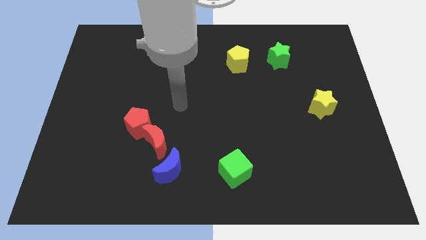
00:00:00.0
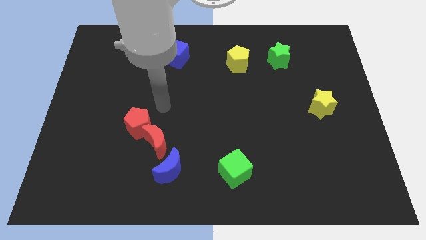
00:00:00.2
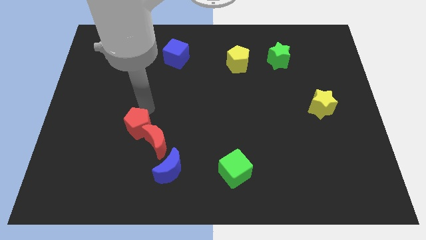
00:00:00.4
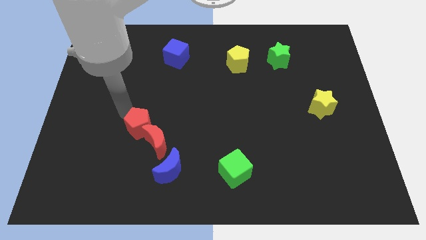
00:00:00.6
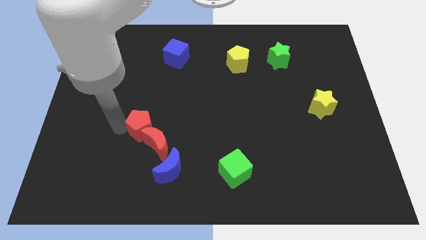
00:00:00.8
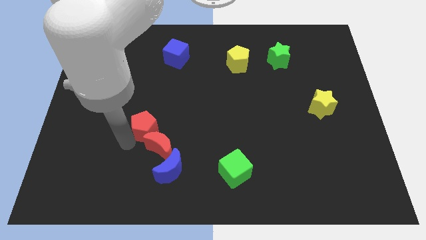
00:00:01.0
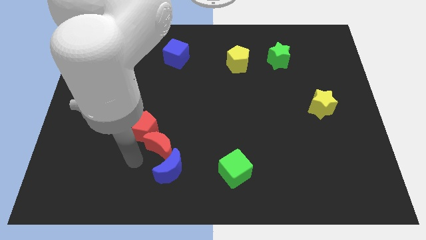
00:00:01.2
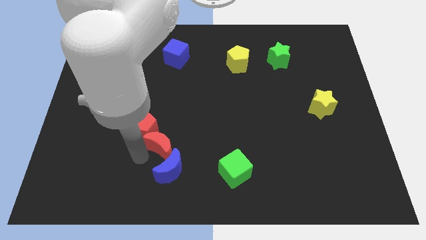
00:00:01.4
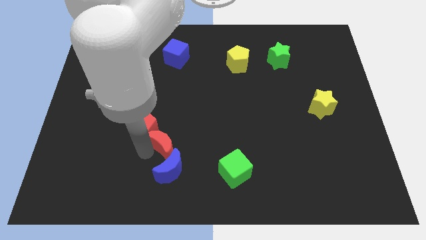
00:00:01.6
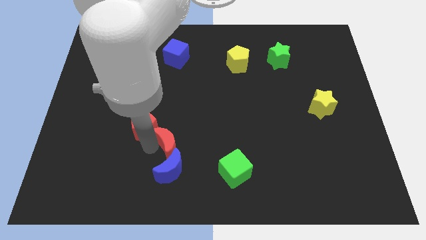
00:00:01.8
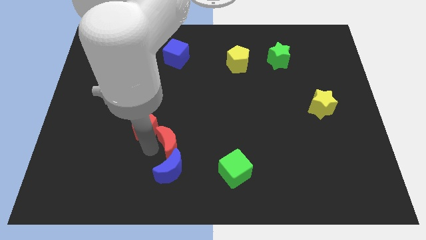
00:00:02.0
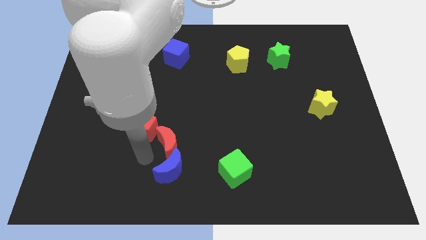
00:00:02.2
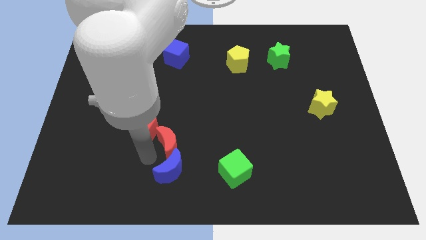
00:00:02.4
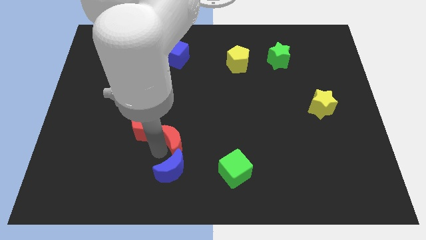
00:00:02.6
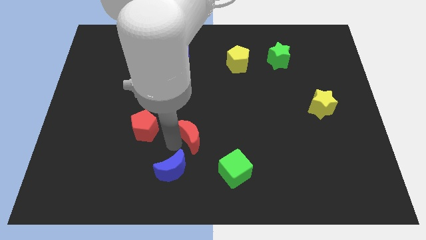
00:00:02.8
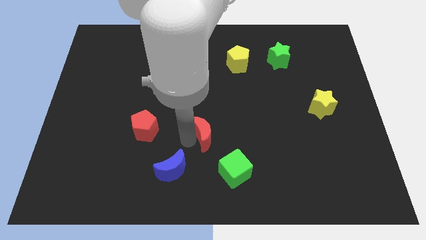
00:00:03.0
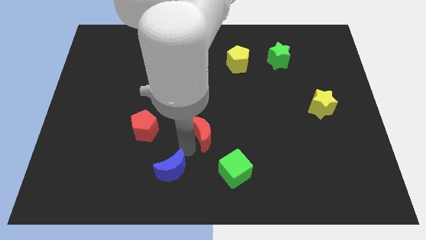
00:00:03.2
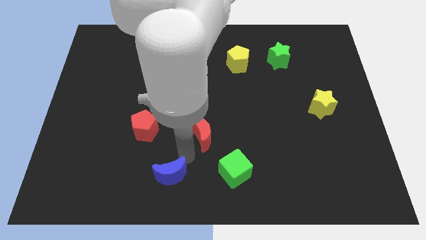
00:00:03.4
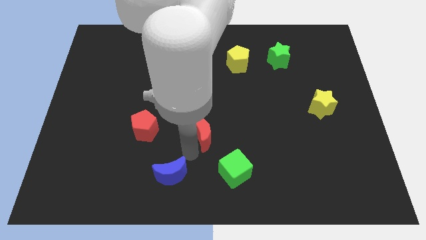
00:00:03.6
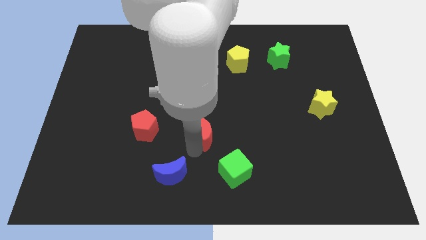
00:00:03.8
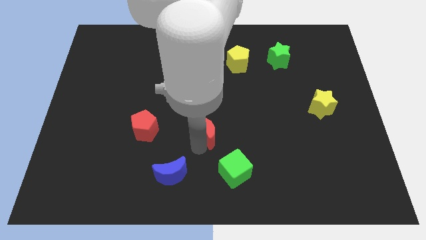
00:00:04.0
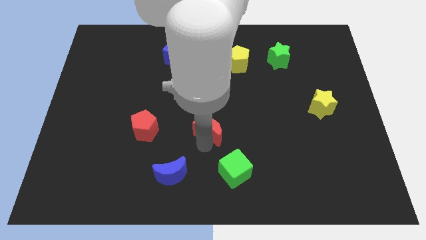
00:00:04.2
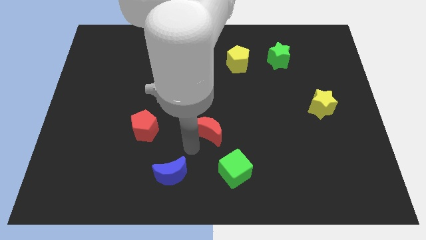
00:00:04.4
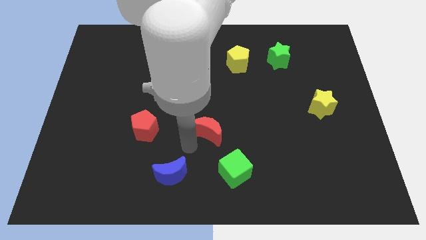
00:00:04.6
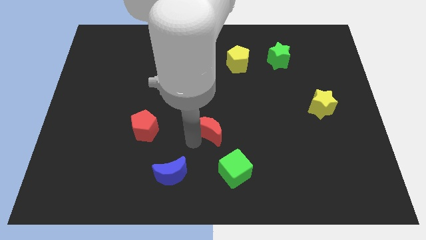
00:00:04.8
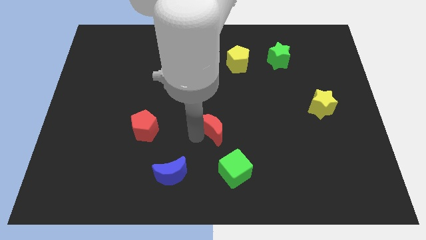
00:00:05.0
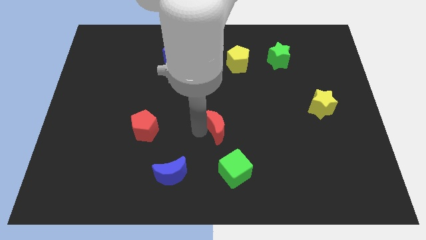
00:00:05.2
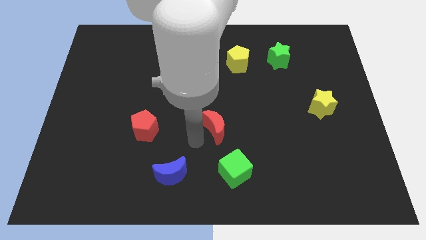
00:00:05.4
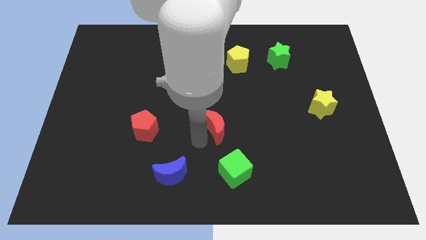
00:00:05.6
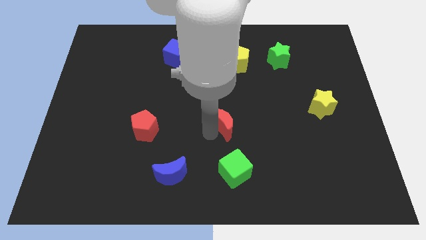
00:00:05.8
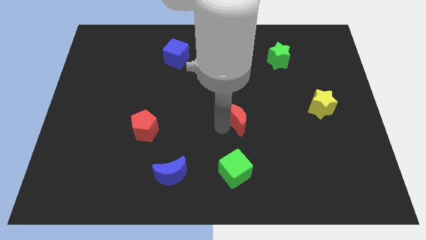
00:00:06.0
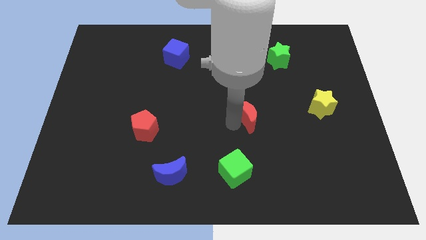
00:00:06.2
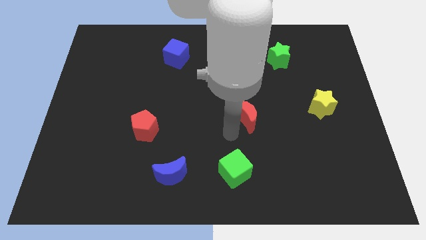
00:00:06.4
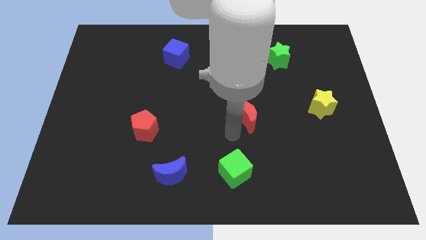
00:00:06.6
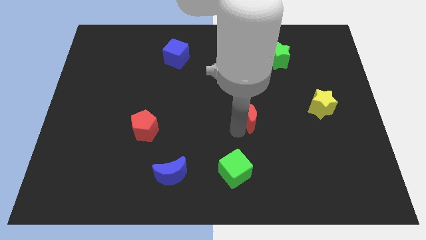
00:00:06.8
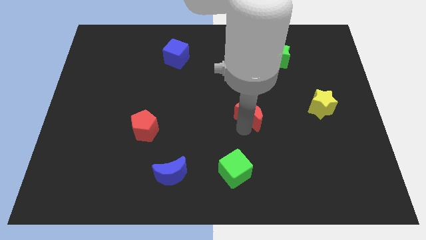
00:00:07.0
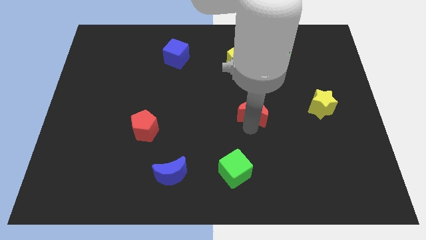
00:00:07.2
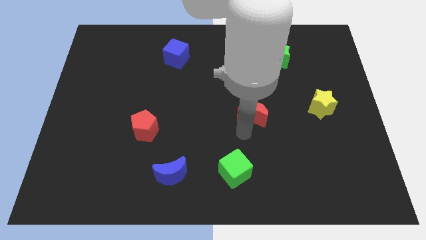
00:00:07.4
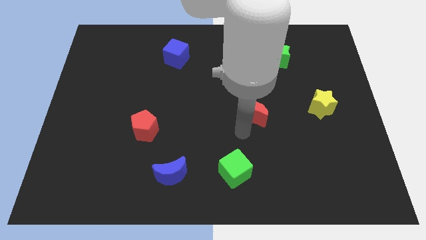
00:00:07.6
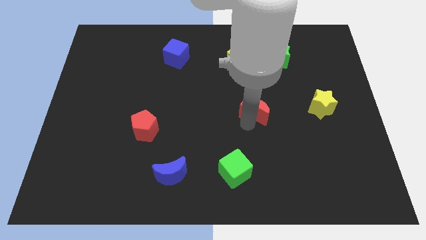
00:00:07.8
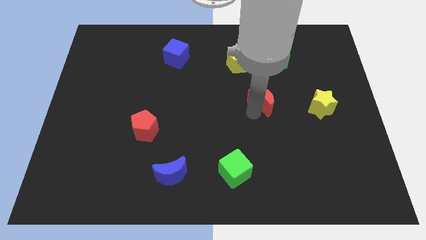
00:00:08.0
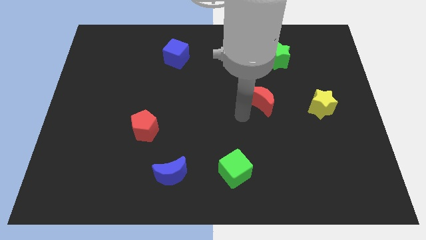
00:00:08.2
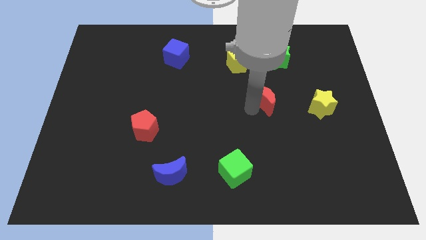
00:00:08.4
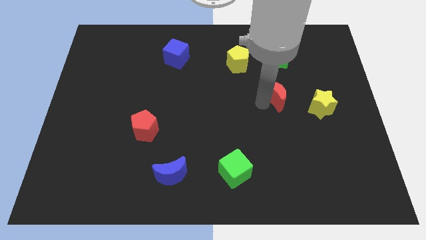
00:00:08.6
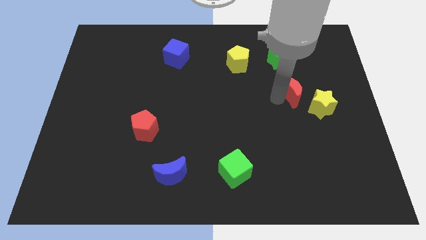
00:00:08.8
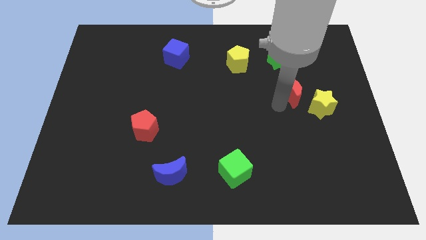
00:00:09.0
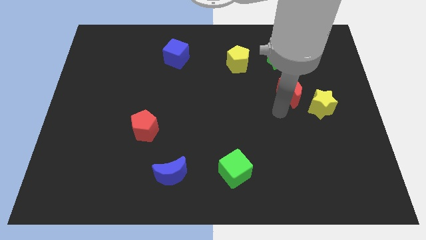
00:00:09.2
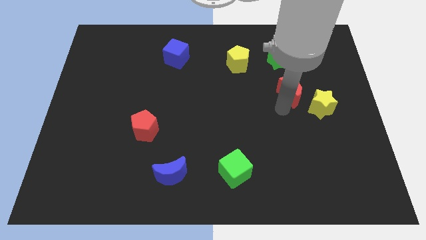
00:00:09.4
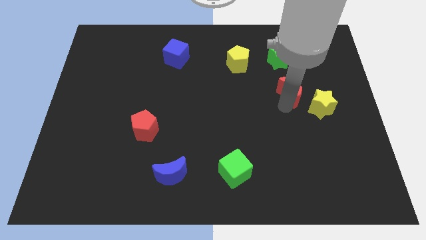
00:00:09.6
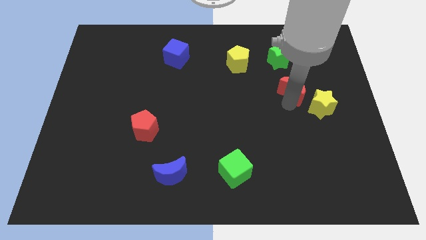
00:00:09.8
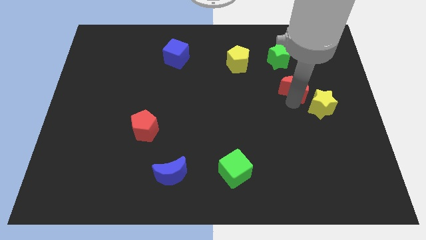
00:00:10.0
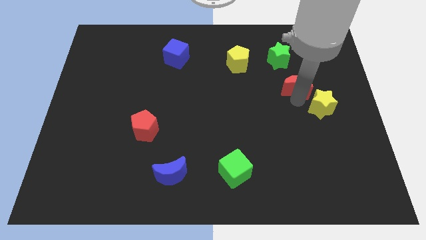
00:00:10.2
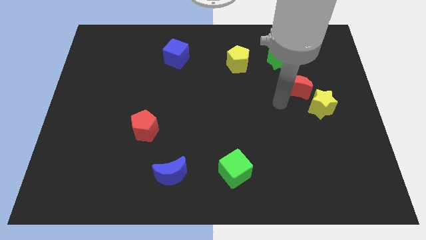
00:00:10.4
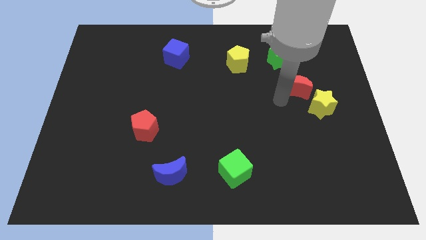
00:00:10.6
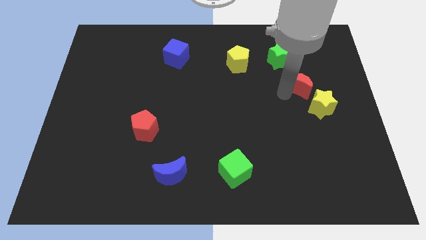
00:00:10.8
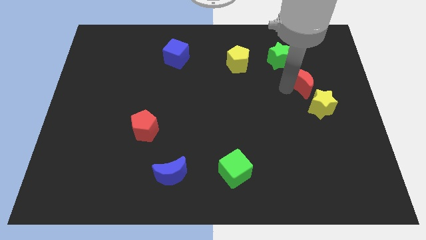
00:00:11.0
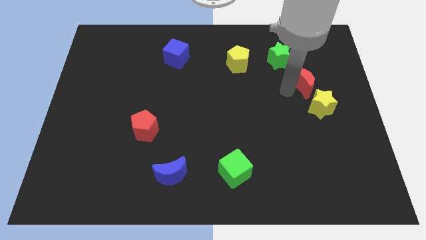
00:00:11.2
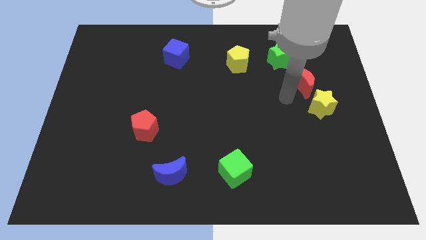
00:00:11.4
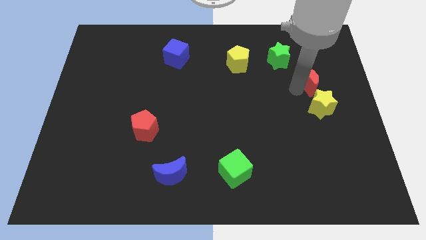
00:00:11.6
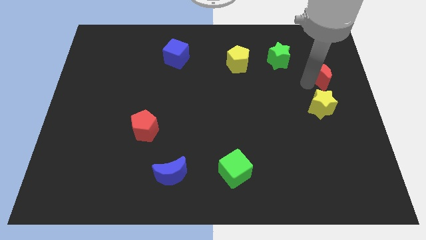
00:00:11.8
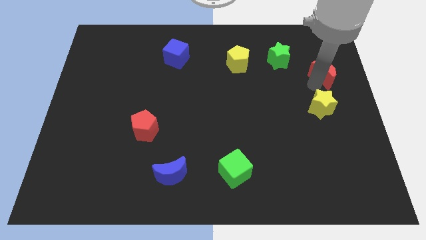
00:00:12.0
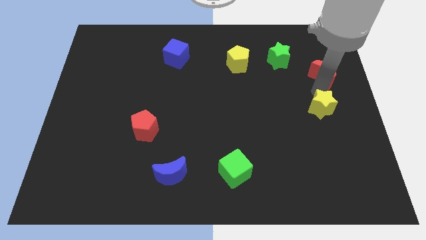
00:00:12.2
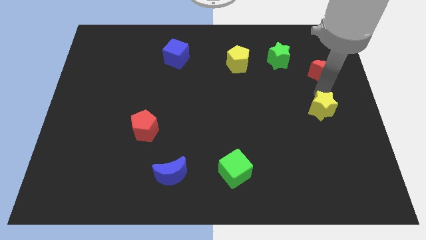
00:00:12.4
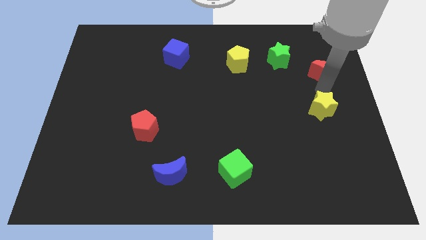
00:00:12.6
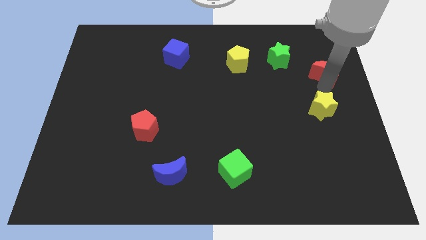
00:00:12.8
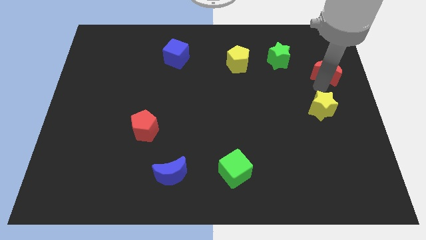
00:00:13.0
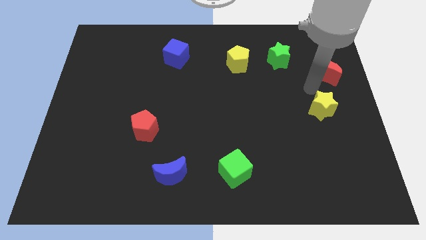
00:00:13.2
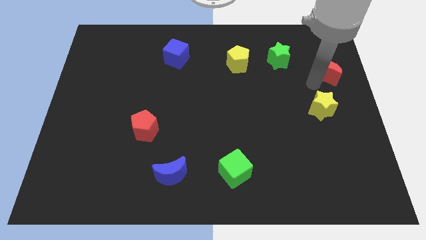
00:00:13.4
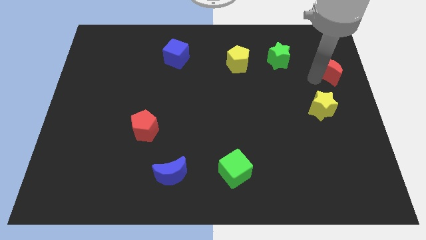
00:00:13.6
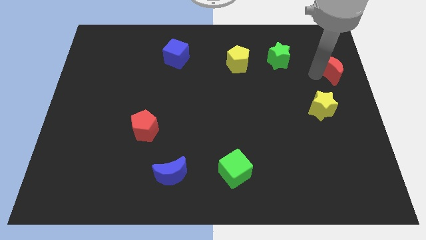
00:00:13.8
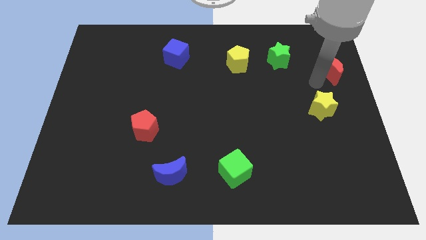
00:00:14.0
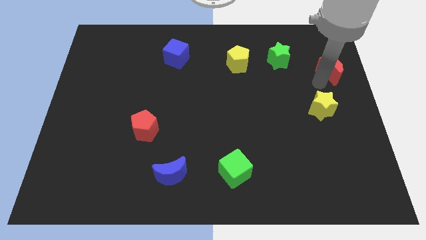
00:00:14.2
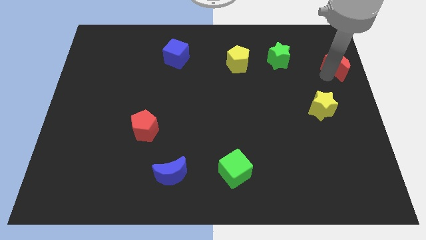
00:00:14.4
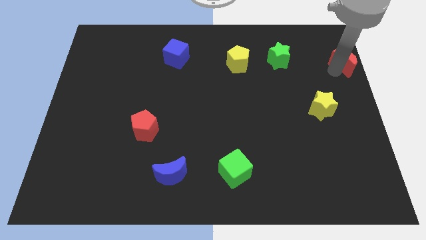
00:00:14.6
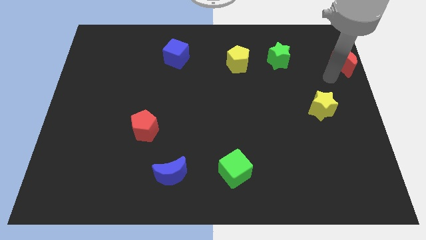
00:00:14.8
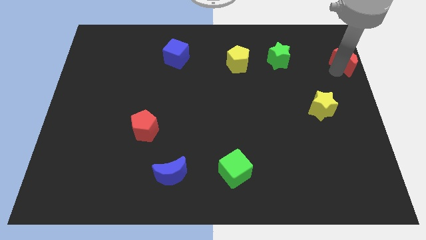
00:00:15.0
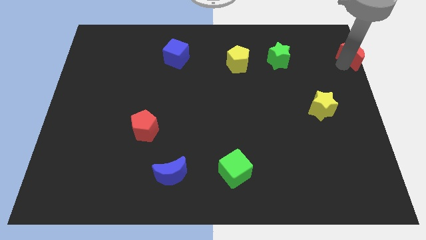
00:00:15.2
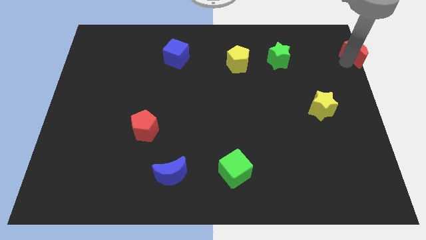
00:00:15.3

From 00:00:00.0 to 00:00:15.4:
move the red moon to the upper right corner

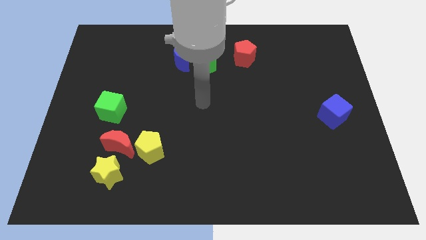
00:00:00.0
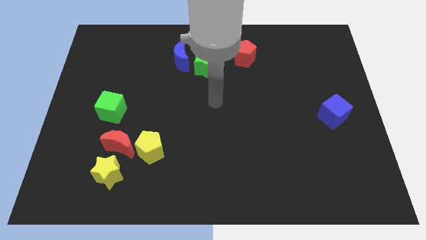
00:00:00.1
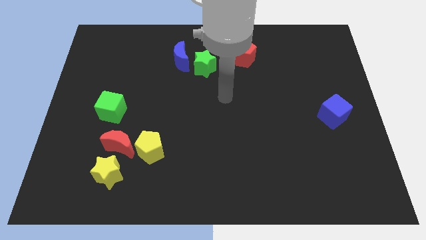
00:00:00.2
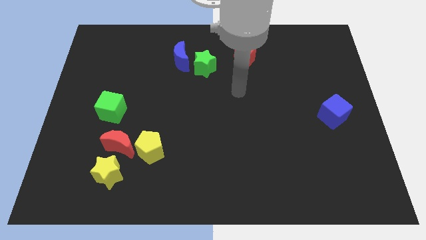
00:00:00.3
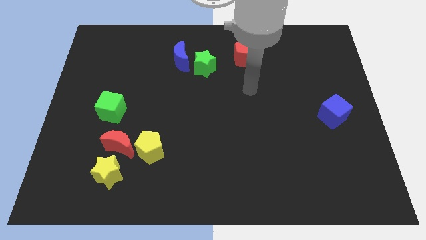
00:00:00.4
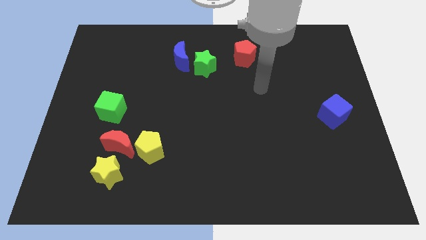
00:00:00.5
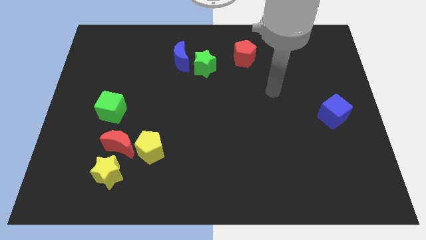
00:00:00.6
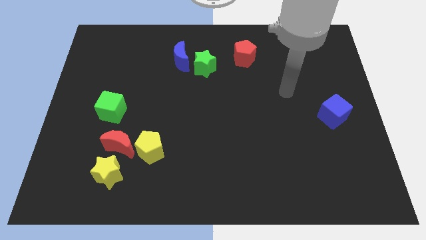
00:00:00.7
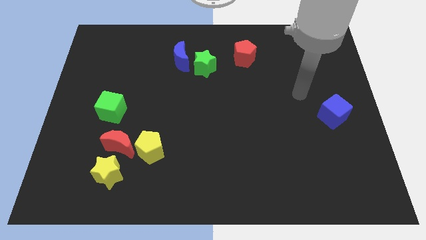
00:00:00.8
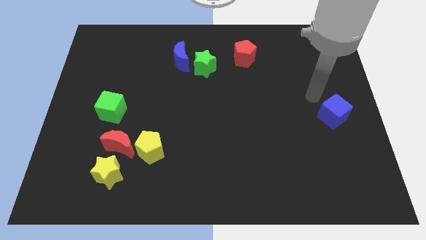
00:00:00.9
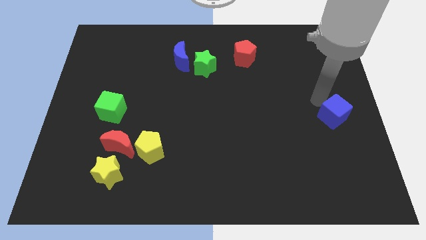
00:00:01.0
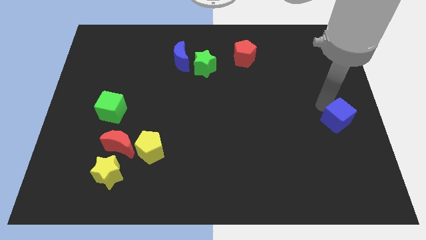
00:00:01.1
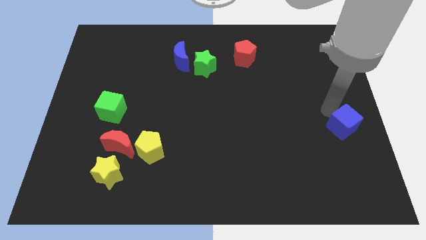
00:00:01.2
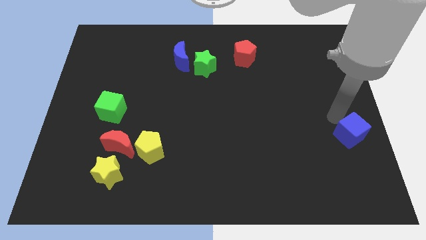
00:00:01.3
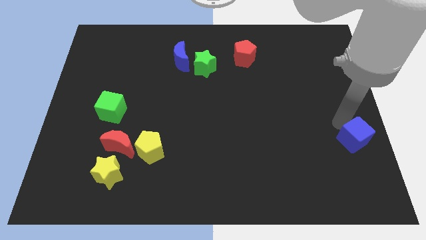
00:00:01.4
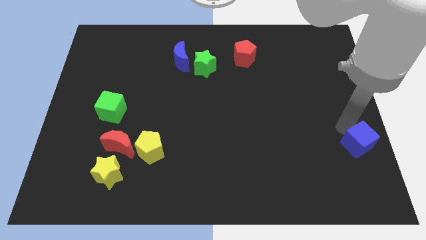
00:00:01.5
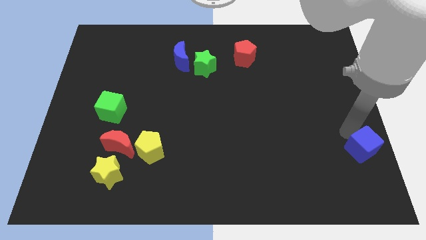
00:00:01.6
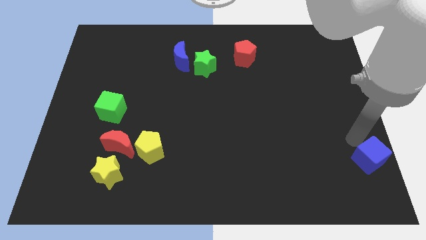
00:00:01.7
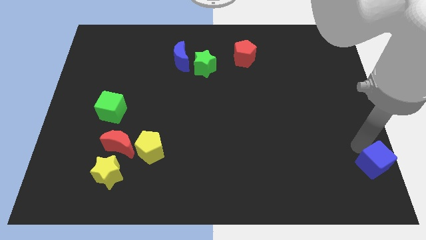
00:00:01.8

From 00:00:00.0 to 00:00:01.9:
push the blue cube to the bottom right of the board
